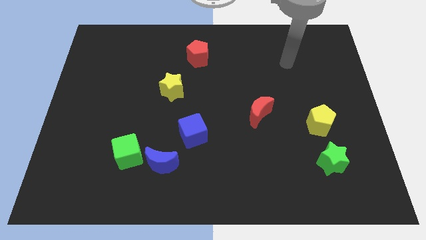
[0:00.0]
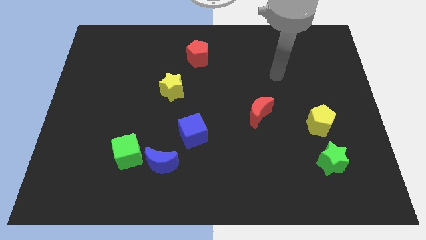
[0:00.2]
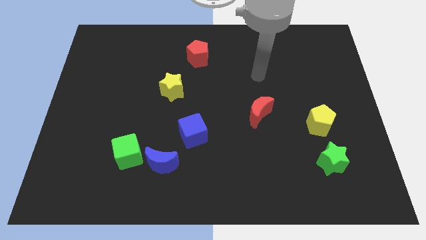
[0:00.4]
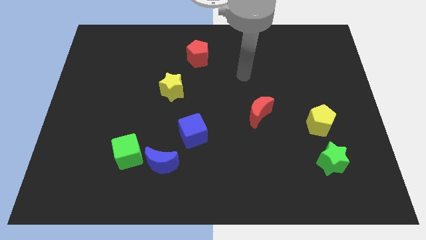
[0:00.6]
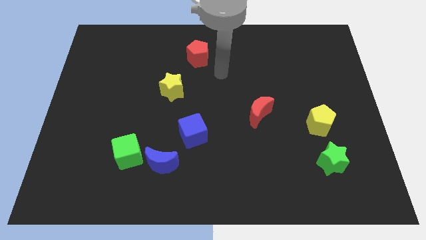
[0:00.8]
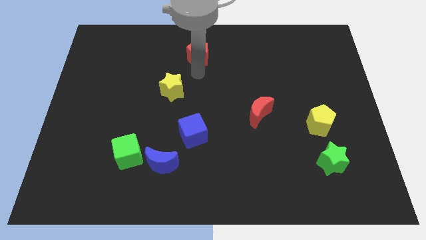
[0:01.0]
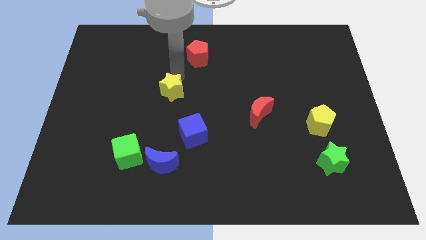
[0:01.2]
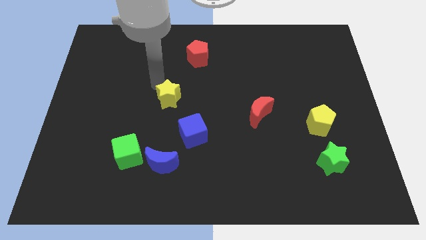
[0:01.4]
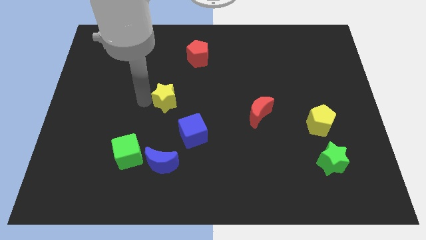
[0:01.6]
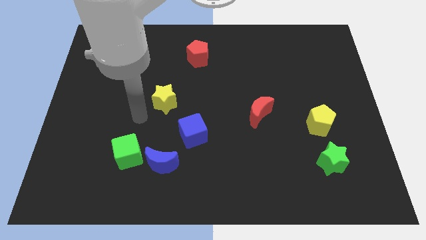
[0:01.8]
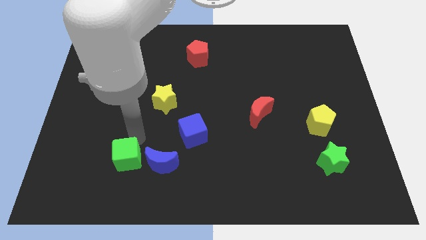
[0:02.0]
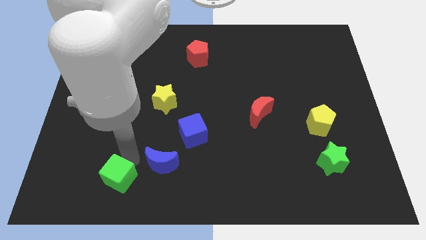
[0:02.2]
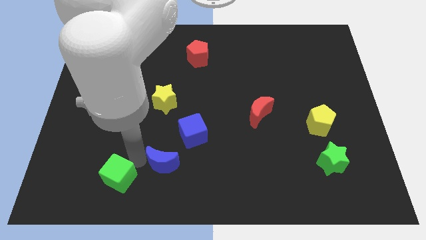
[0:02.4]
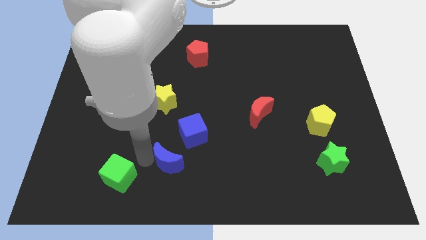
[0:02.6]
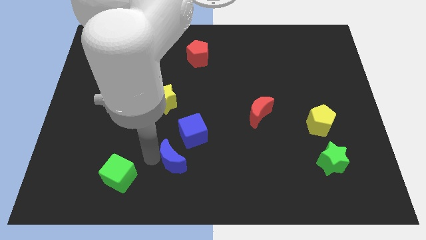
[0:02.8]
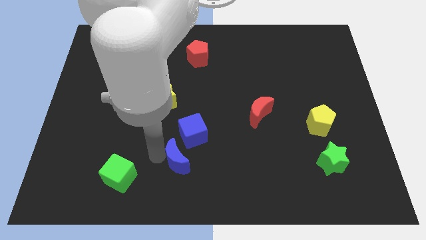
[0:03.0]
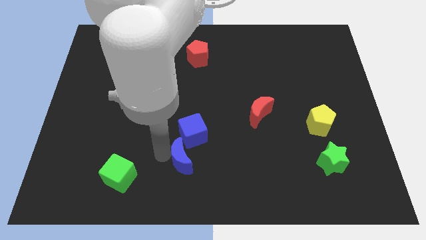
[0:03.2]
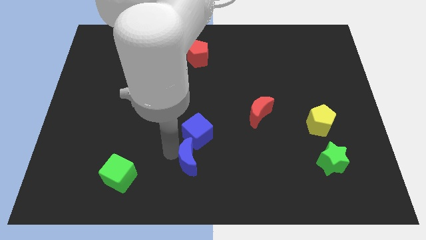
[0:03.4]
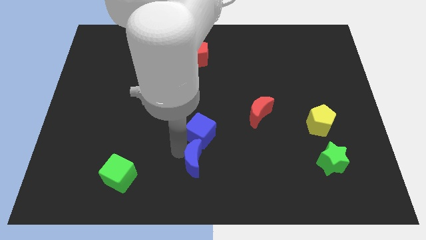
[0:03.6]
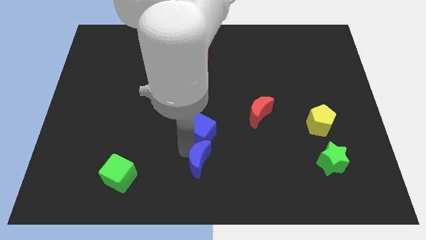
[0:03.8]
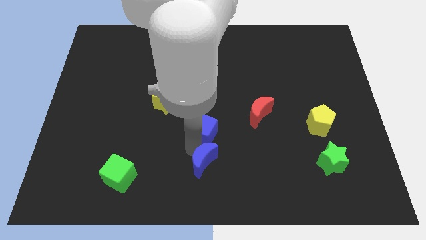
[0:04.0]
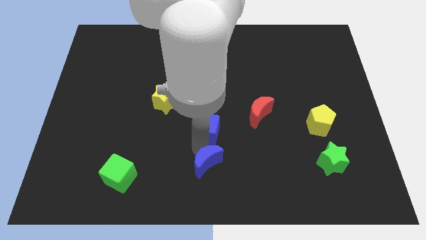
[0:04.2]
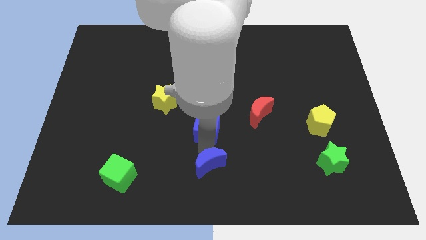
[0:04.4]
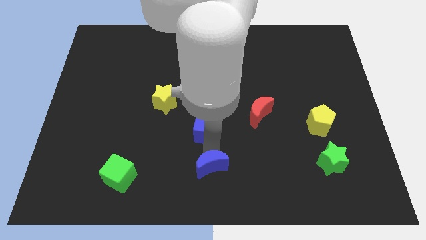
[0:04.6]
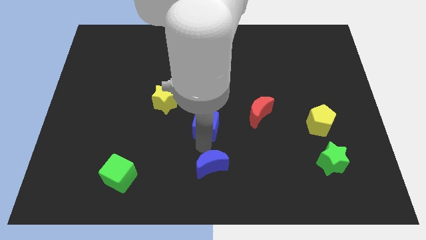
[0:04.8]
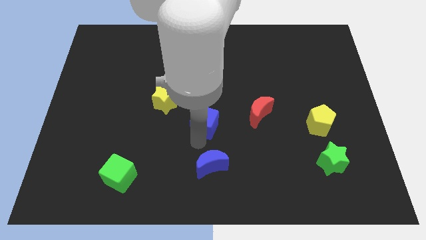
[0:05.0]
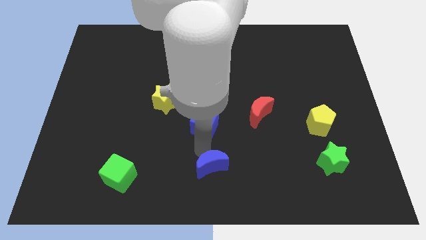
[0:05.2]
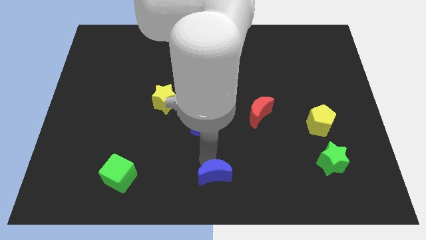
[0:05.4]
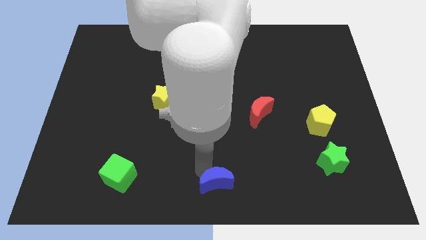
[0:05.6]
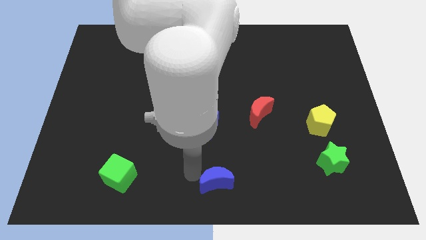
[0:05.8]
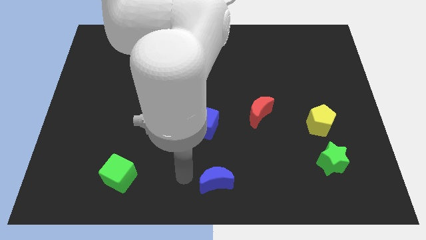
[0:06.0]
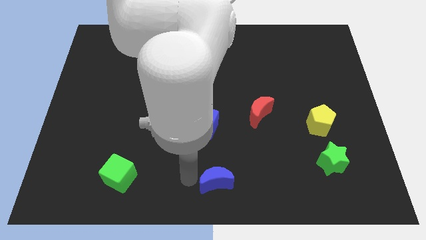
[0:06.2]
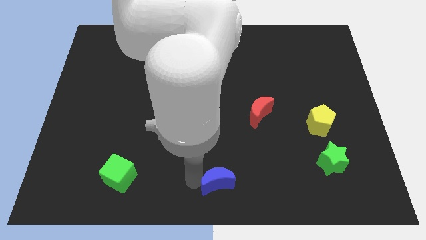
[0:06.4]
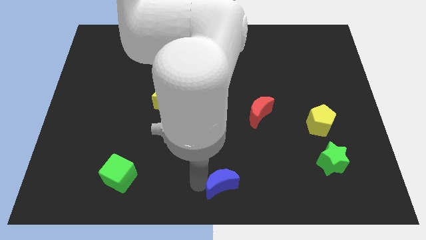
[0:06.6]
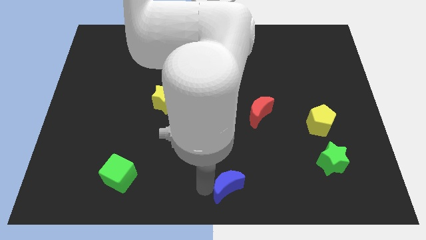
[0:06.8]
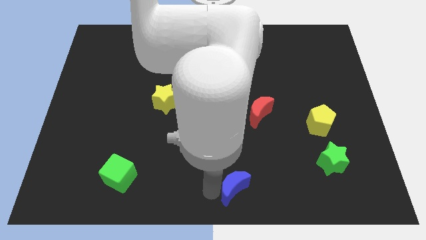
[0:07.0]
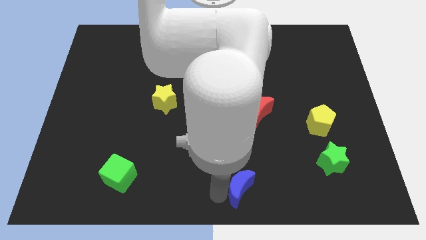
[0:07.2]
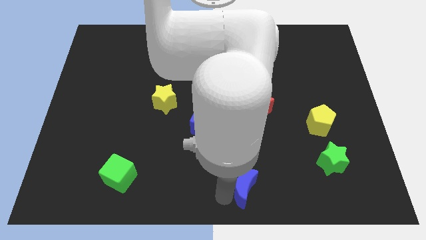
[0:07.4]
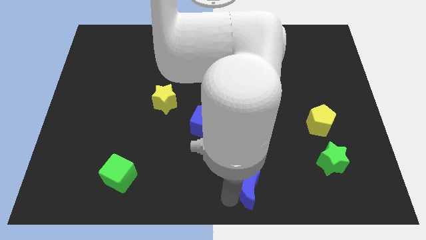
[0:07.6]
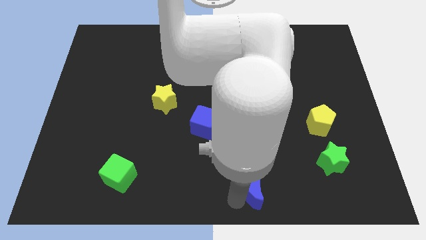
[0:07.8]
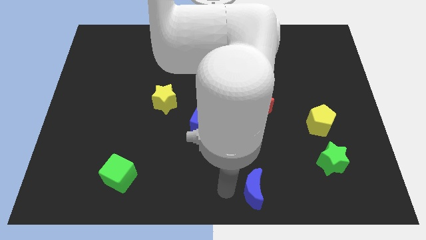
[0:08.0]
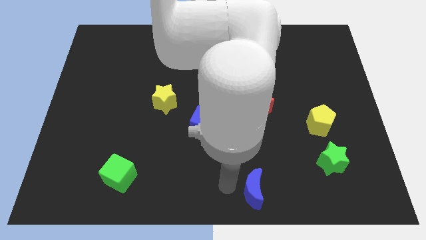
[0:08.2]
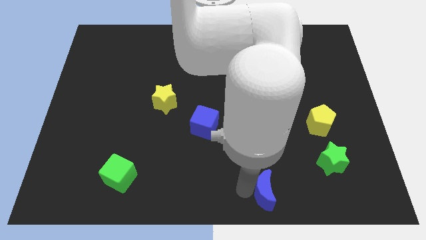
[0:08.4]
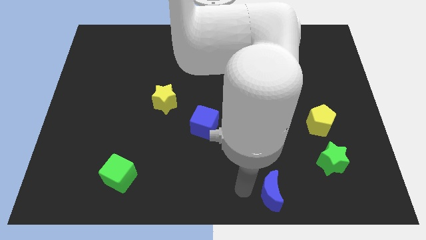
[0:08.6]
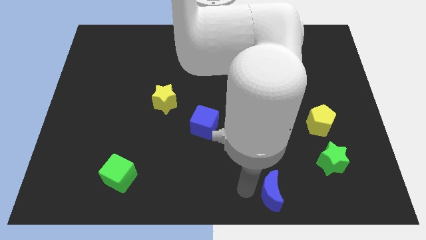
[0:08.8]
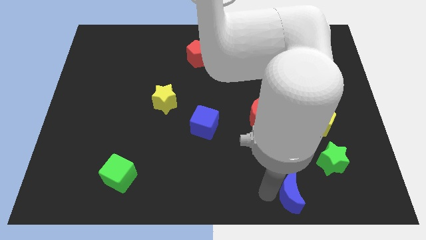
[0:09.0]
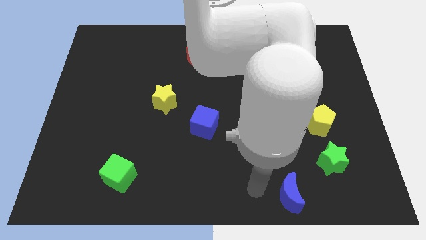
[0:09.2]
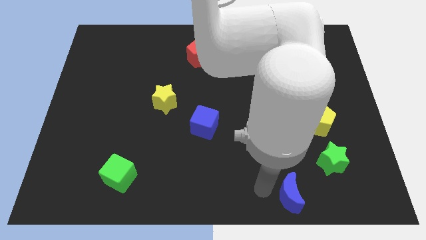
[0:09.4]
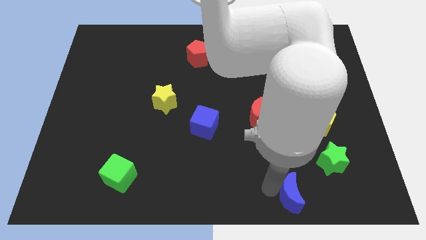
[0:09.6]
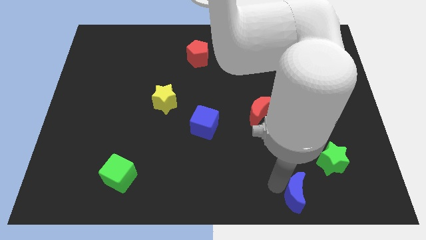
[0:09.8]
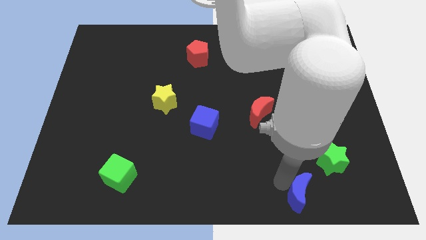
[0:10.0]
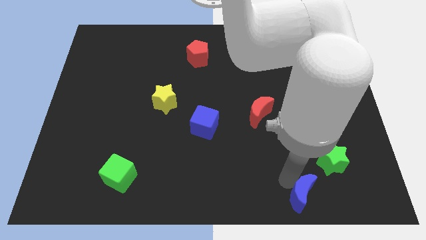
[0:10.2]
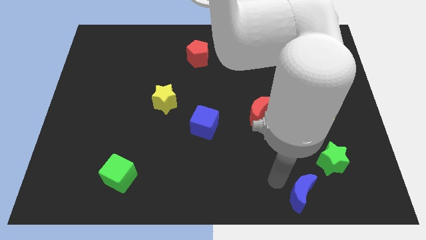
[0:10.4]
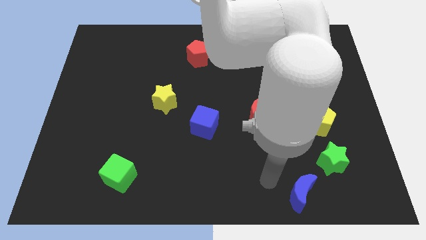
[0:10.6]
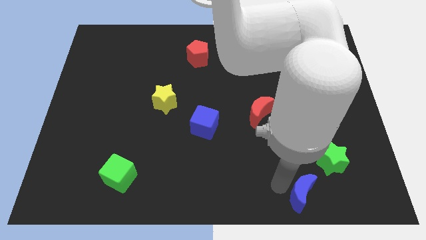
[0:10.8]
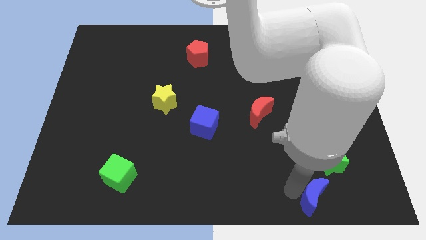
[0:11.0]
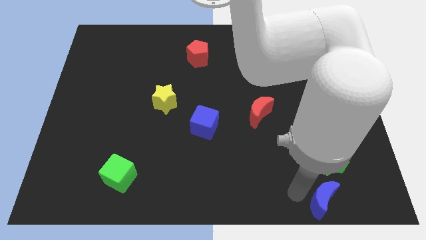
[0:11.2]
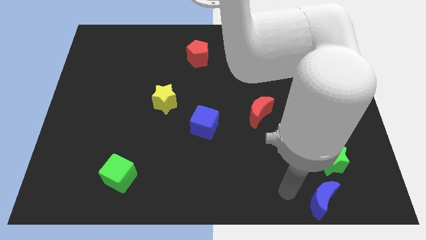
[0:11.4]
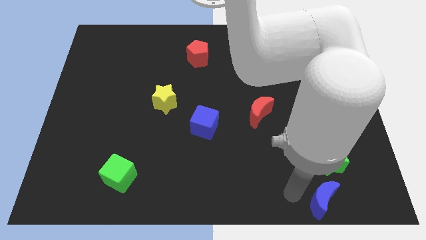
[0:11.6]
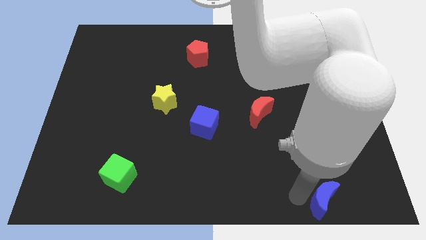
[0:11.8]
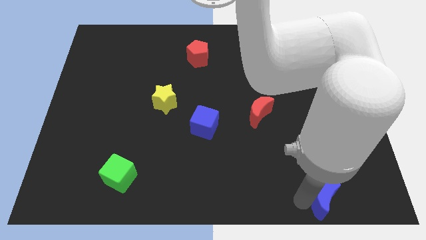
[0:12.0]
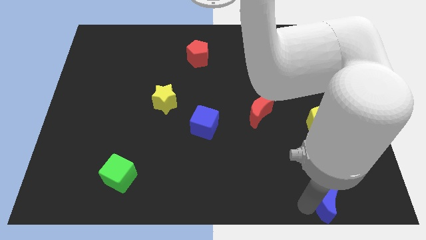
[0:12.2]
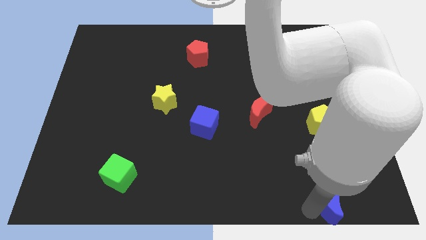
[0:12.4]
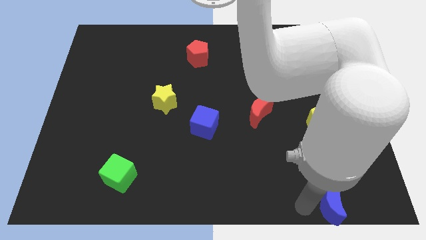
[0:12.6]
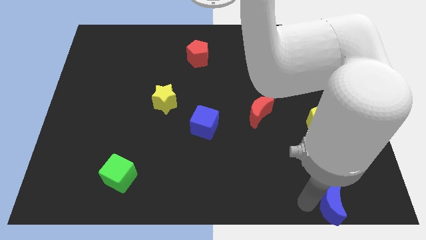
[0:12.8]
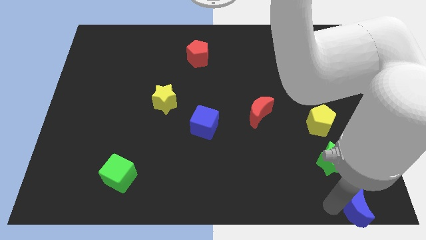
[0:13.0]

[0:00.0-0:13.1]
slide the blue moon to the bottom right corner
